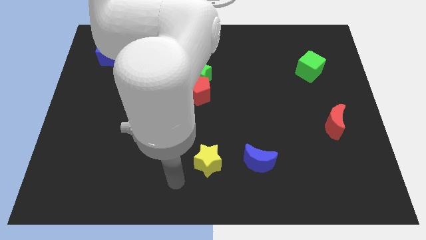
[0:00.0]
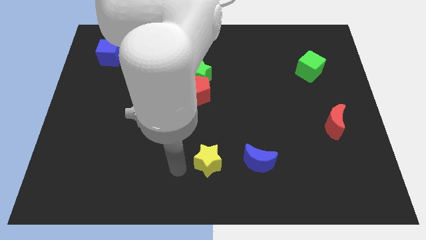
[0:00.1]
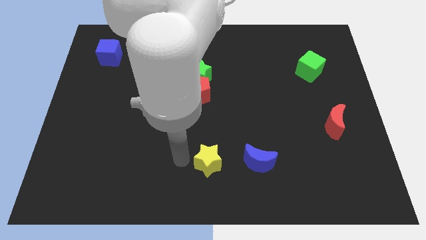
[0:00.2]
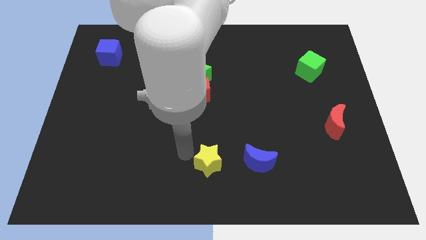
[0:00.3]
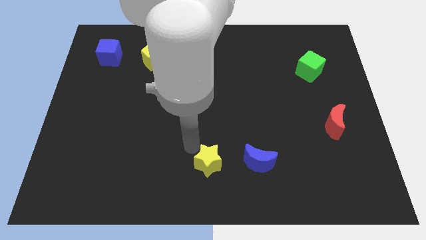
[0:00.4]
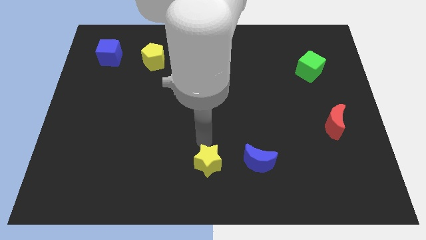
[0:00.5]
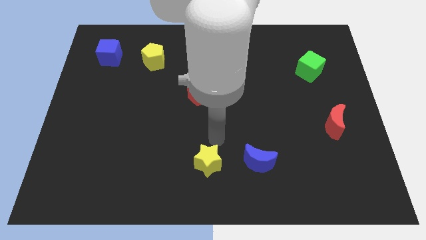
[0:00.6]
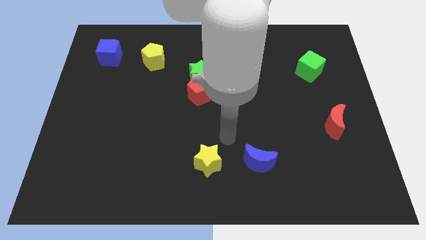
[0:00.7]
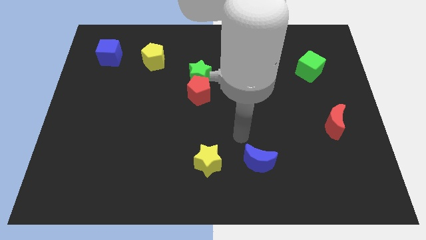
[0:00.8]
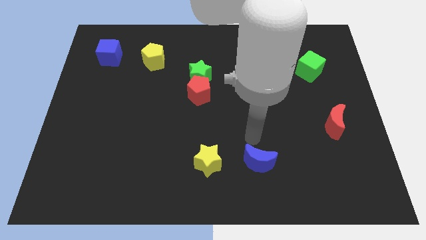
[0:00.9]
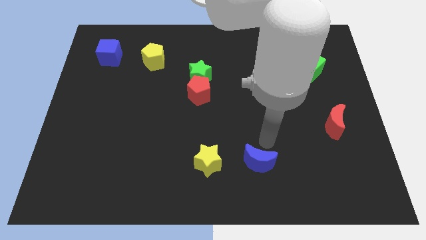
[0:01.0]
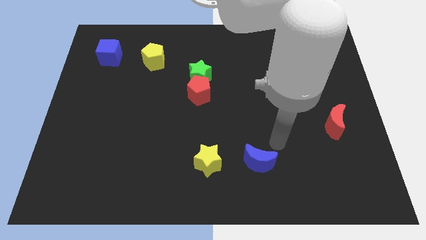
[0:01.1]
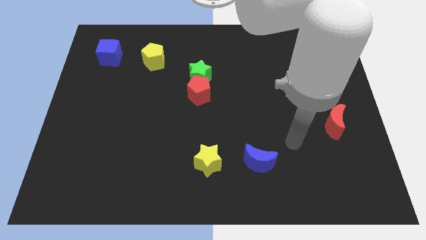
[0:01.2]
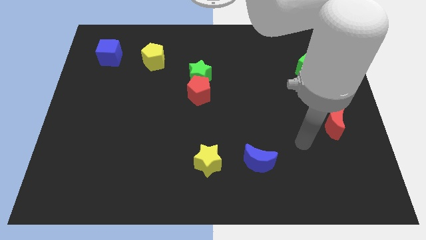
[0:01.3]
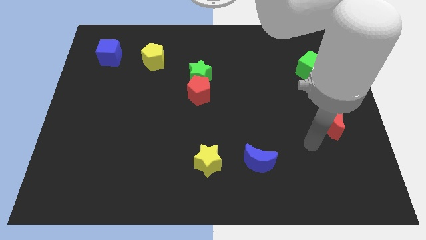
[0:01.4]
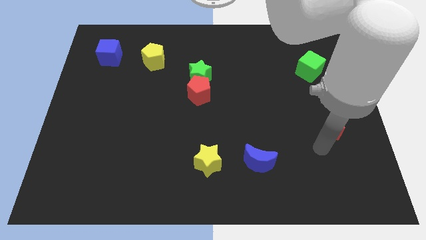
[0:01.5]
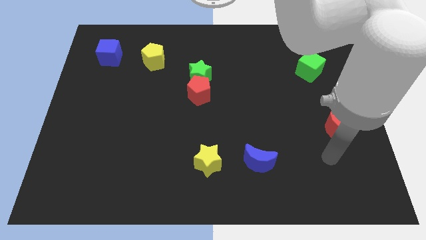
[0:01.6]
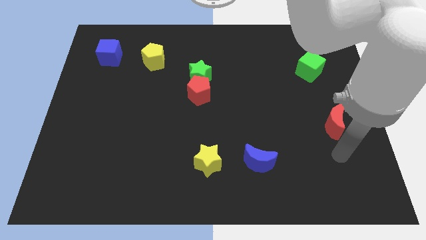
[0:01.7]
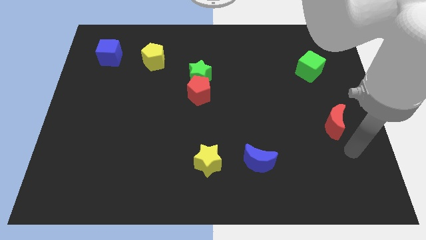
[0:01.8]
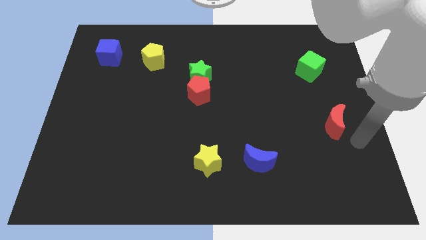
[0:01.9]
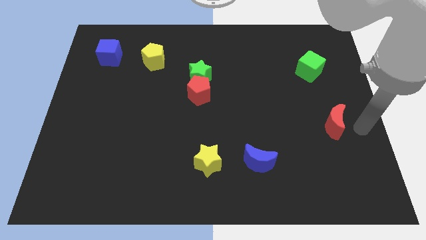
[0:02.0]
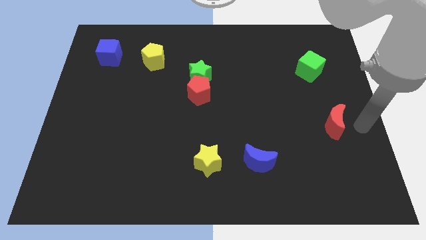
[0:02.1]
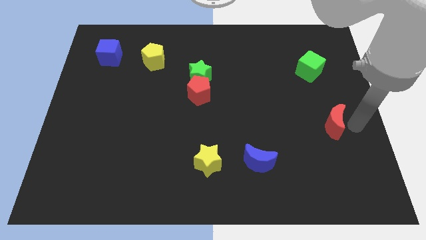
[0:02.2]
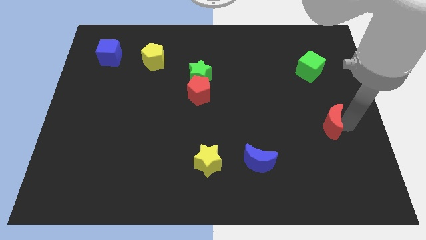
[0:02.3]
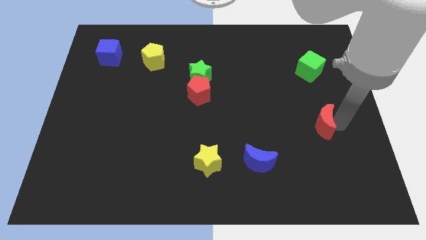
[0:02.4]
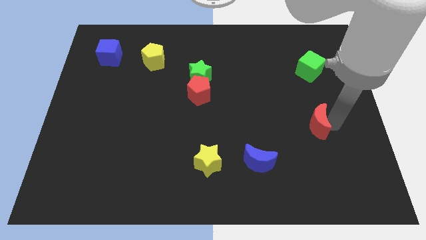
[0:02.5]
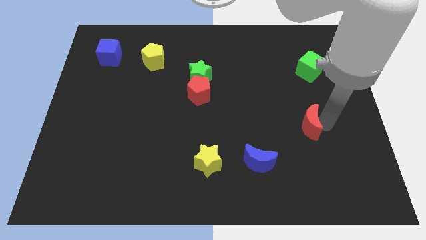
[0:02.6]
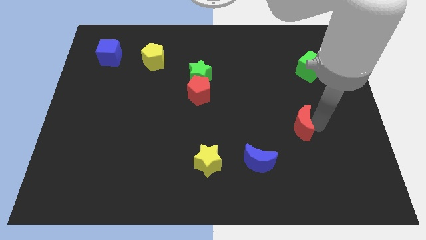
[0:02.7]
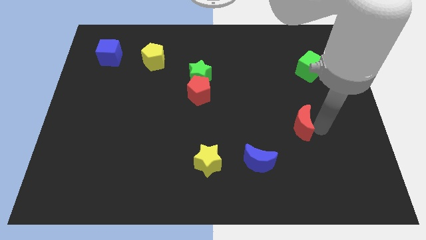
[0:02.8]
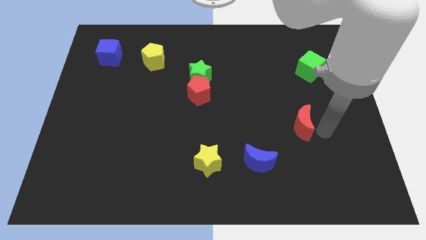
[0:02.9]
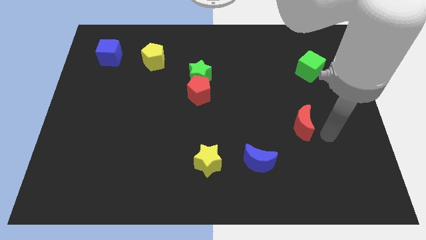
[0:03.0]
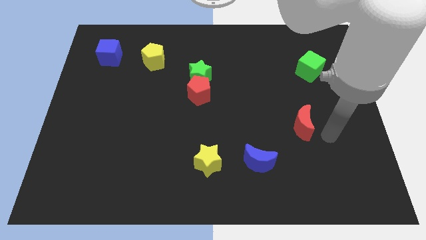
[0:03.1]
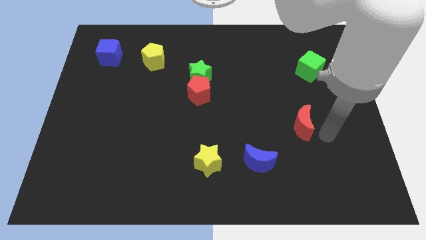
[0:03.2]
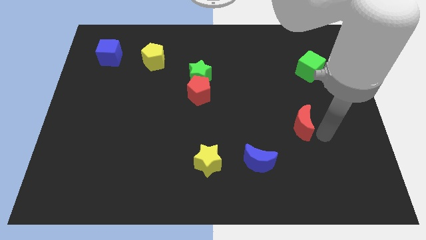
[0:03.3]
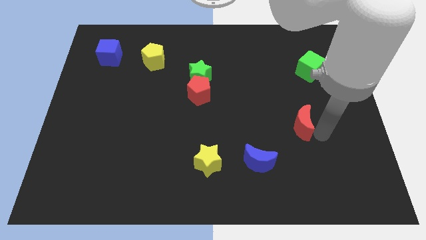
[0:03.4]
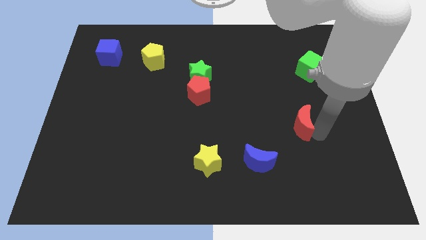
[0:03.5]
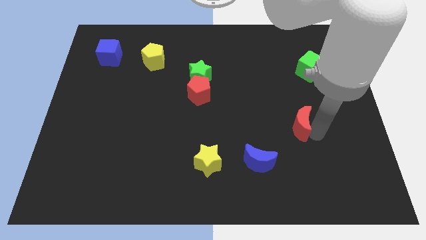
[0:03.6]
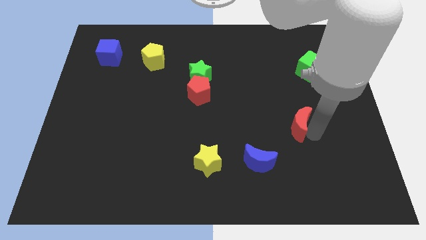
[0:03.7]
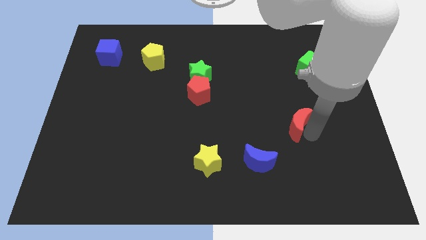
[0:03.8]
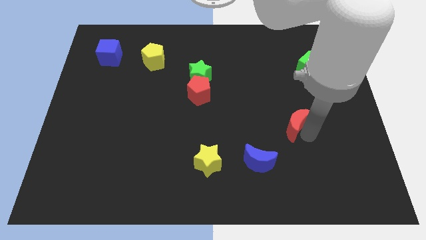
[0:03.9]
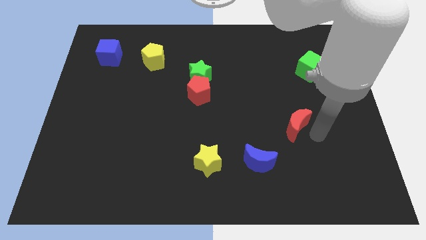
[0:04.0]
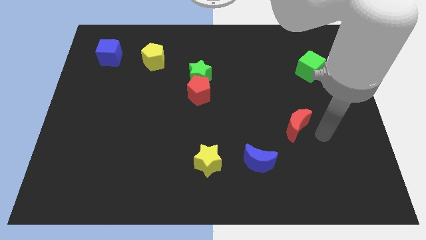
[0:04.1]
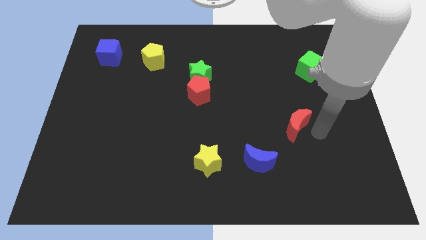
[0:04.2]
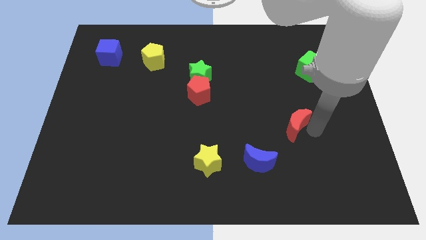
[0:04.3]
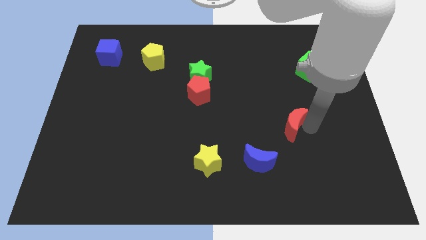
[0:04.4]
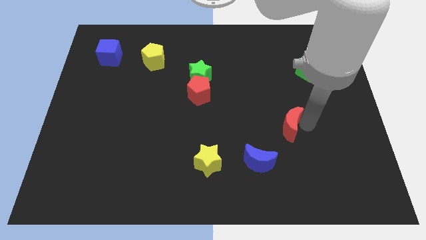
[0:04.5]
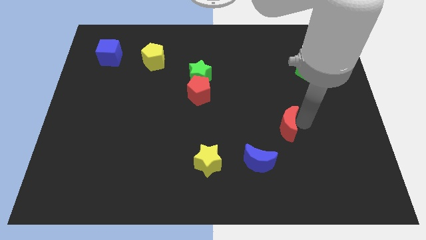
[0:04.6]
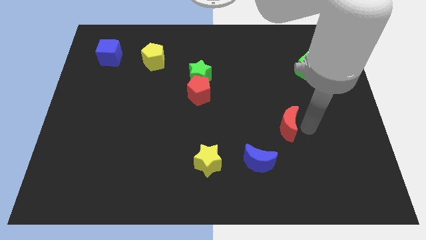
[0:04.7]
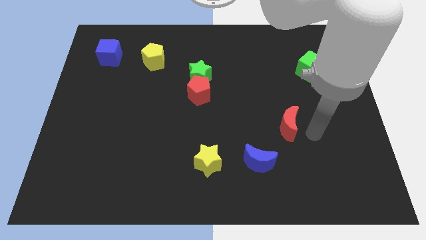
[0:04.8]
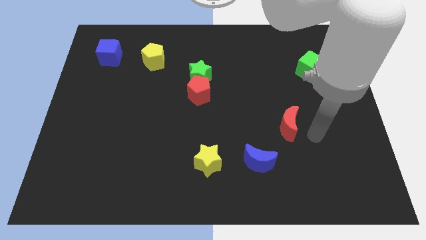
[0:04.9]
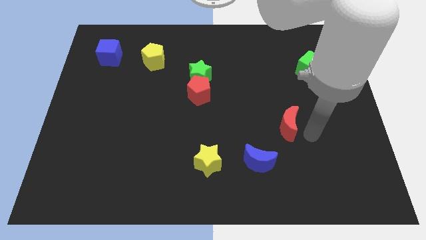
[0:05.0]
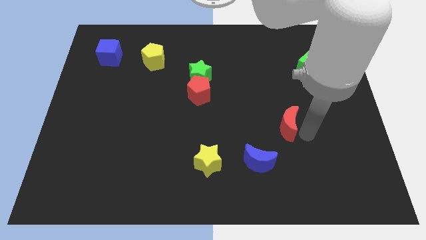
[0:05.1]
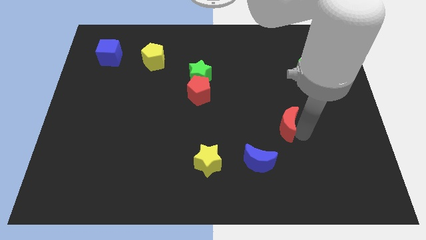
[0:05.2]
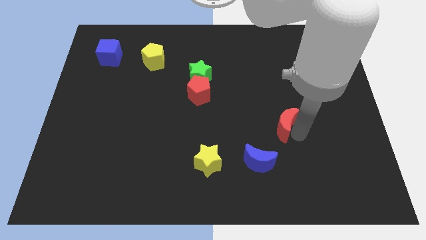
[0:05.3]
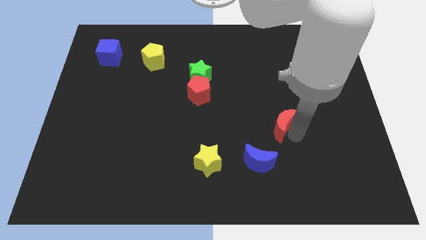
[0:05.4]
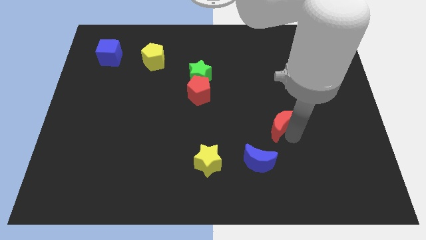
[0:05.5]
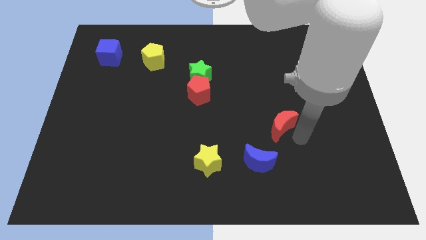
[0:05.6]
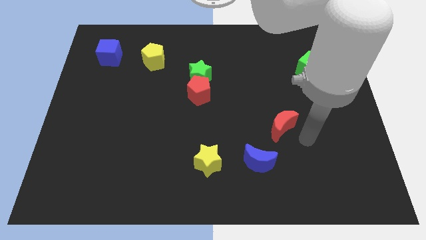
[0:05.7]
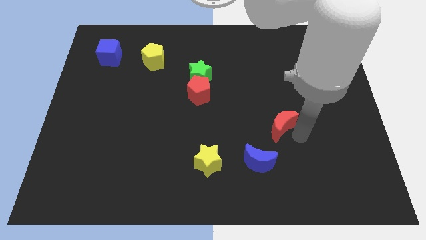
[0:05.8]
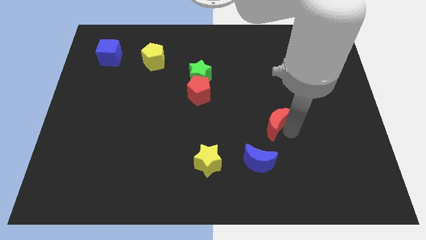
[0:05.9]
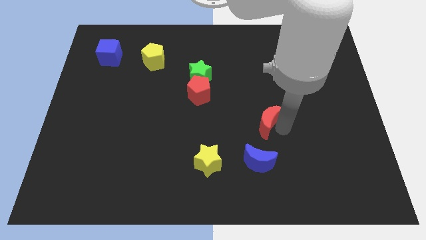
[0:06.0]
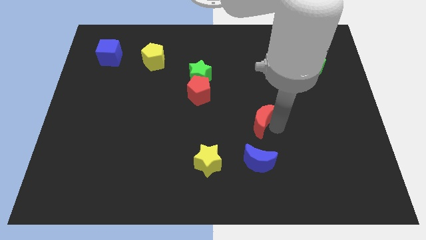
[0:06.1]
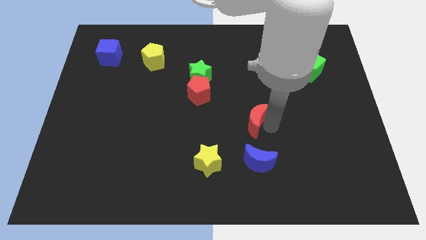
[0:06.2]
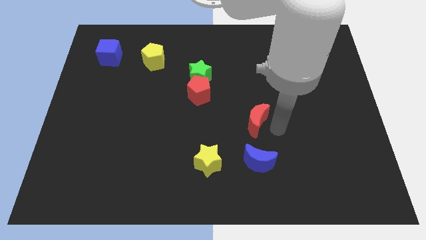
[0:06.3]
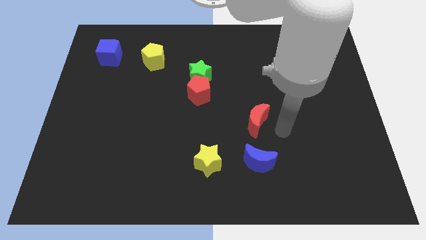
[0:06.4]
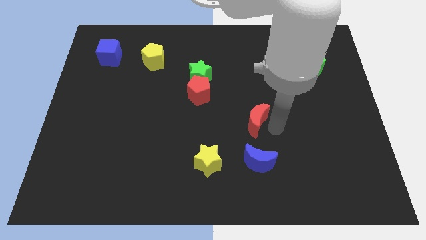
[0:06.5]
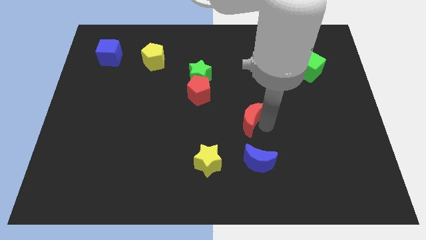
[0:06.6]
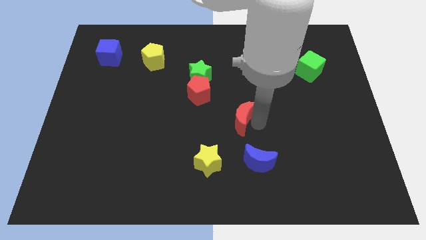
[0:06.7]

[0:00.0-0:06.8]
slide the red moon to the bottom right of the red pentagon
